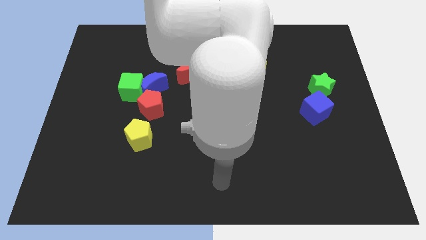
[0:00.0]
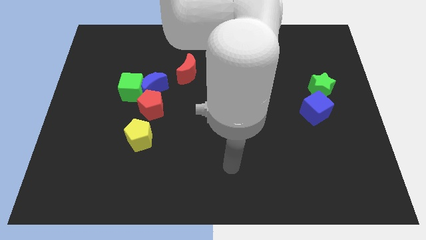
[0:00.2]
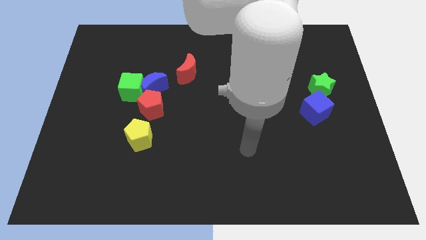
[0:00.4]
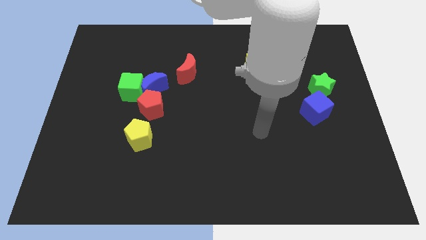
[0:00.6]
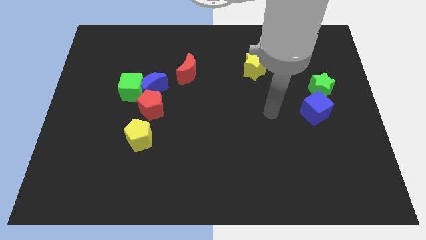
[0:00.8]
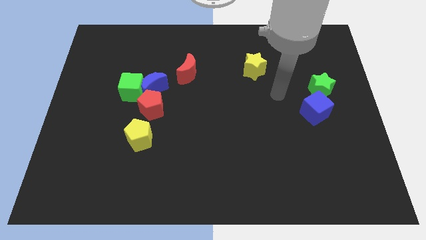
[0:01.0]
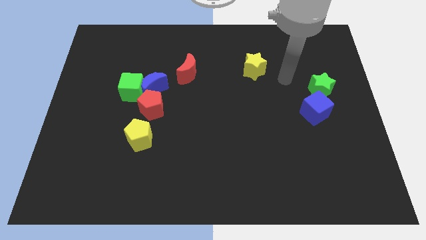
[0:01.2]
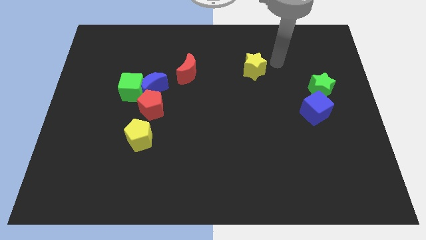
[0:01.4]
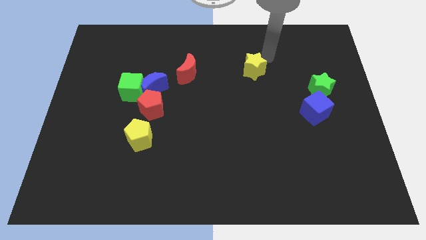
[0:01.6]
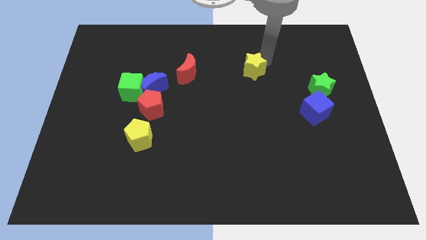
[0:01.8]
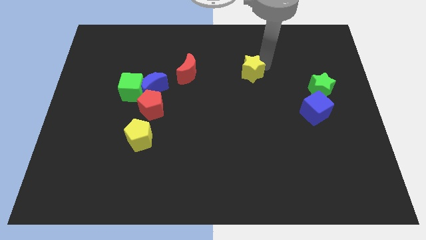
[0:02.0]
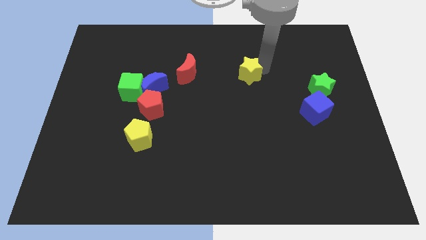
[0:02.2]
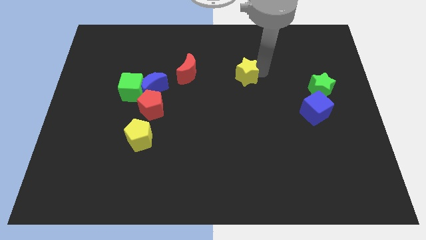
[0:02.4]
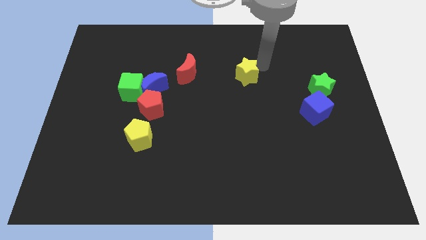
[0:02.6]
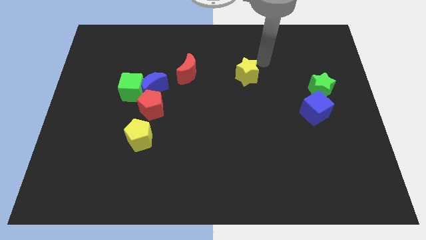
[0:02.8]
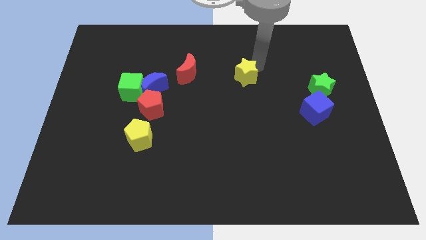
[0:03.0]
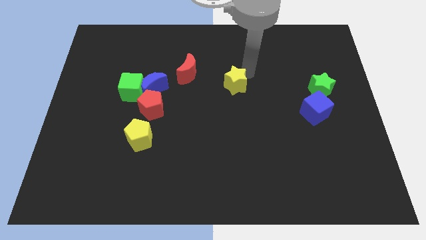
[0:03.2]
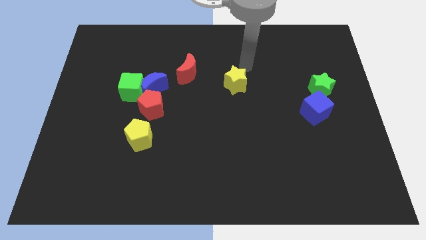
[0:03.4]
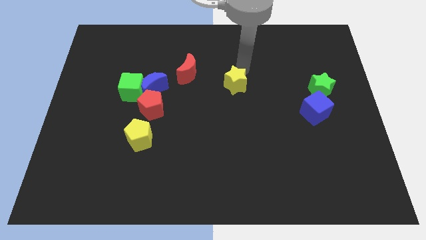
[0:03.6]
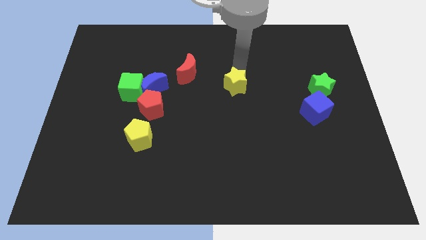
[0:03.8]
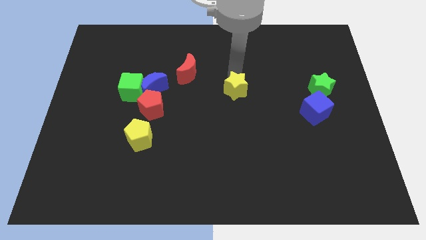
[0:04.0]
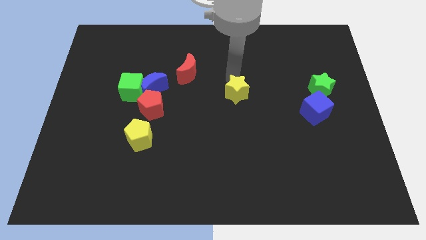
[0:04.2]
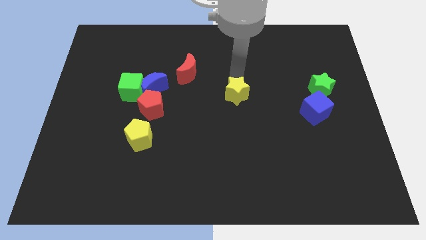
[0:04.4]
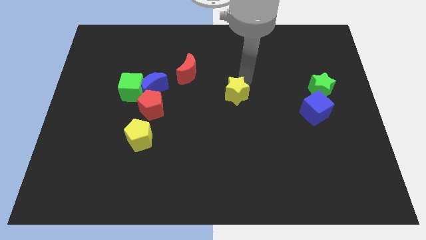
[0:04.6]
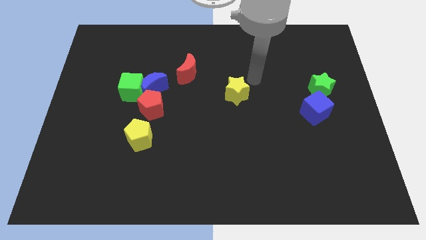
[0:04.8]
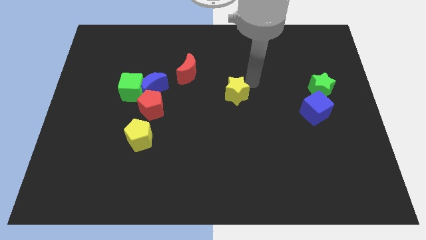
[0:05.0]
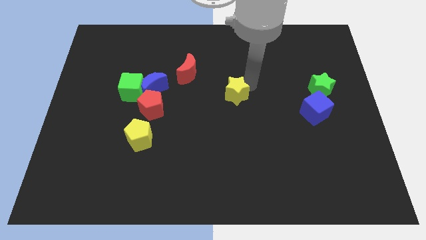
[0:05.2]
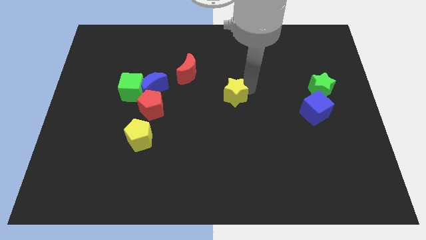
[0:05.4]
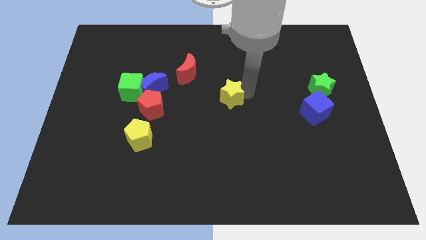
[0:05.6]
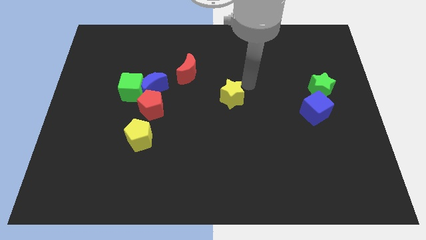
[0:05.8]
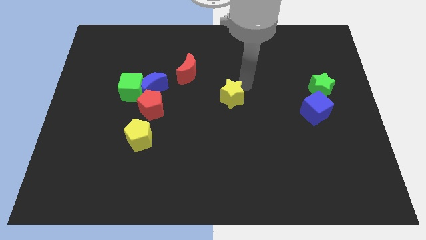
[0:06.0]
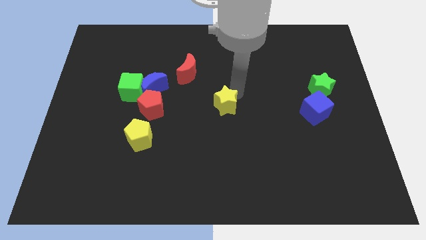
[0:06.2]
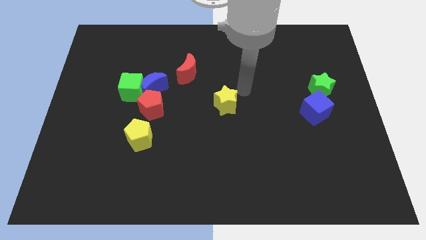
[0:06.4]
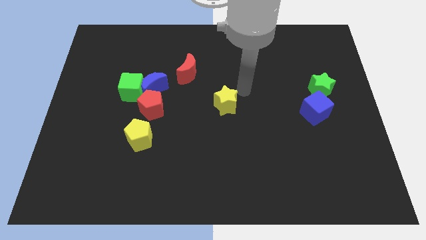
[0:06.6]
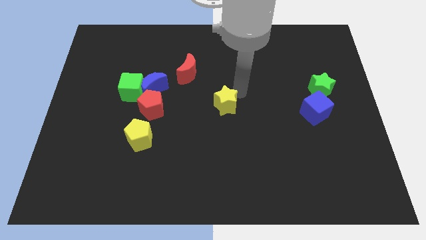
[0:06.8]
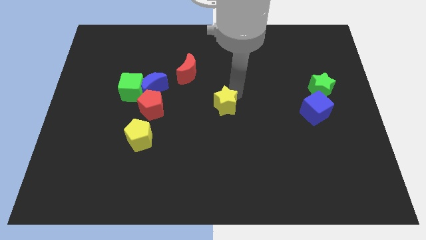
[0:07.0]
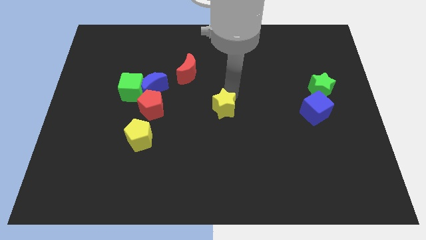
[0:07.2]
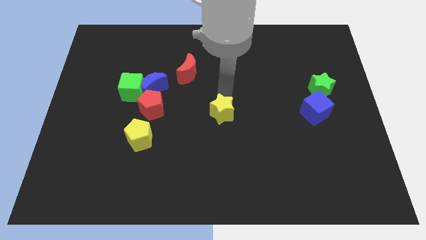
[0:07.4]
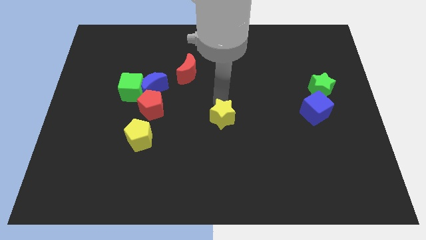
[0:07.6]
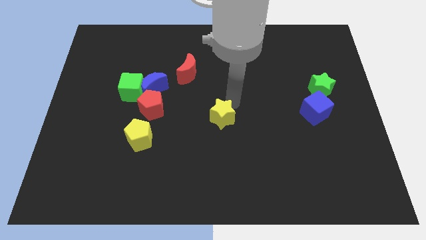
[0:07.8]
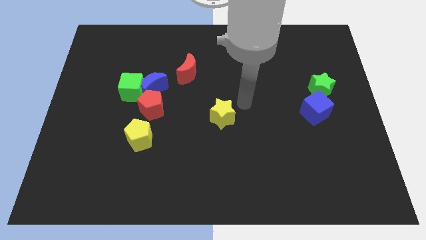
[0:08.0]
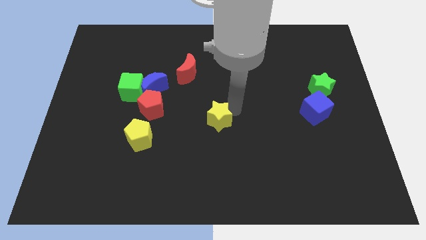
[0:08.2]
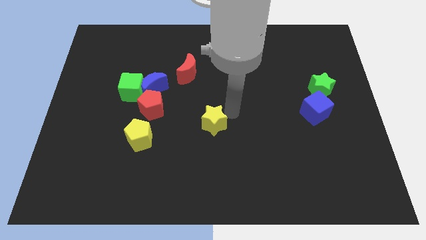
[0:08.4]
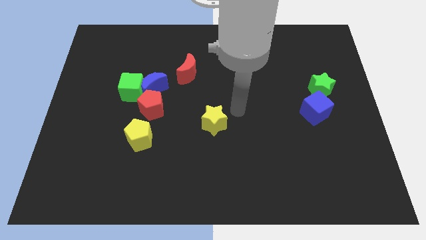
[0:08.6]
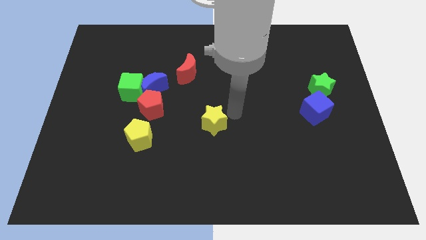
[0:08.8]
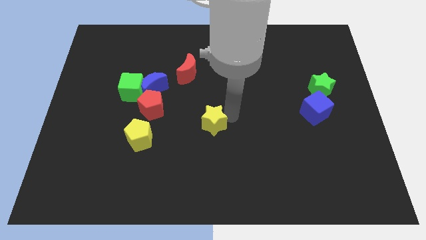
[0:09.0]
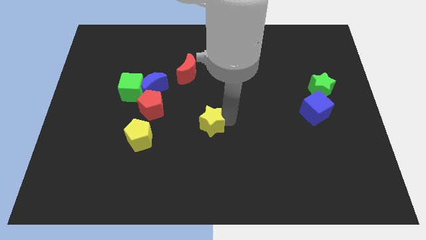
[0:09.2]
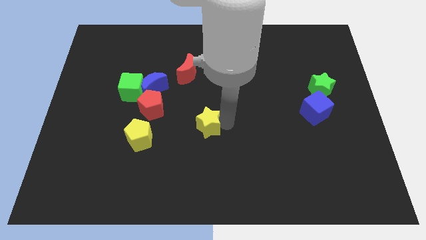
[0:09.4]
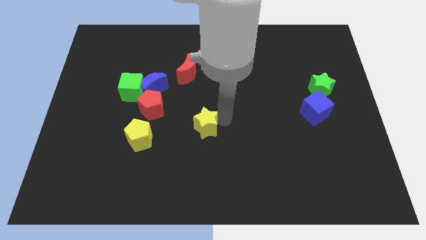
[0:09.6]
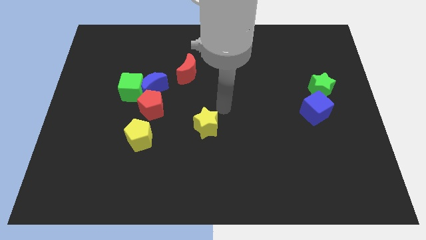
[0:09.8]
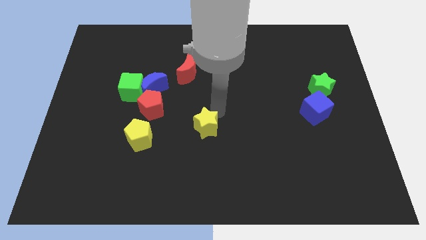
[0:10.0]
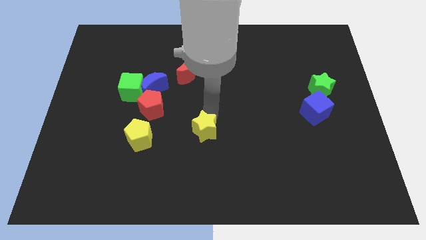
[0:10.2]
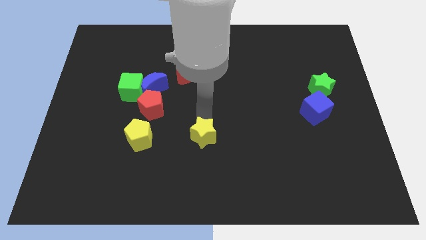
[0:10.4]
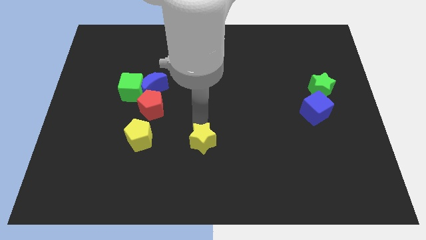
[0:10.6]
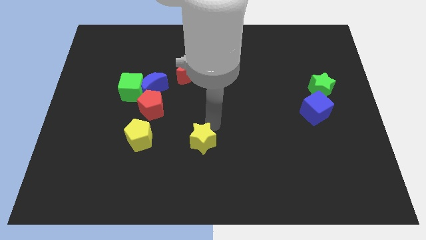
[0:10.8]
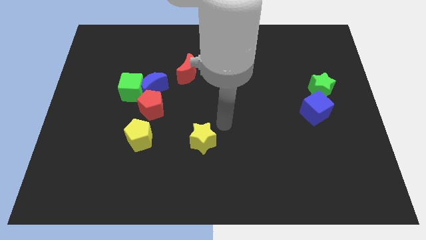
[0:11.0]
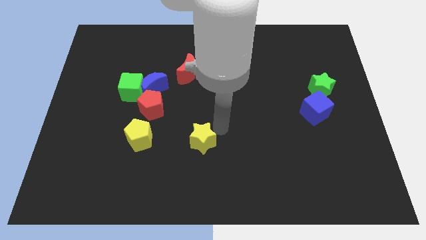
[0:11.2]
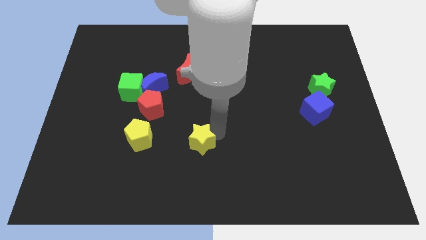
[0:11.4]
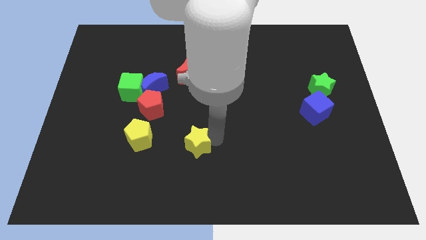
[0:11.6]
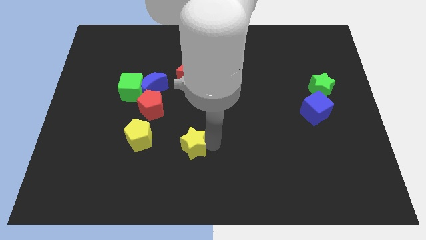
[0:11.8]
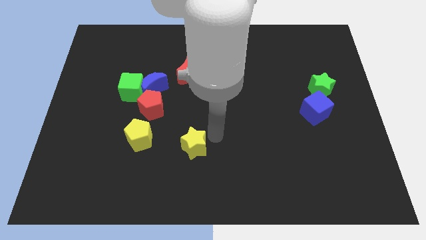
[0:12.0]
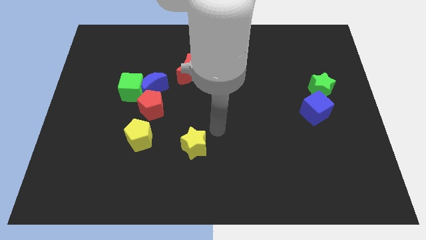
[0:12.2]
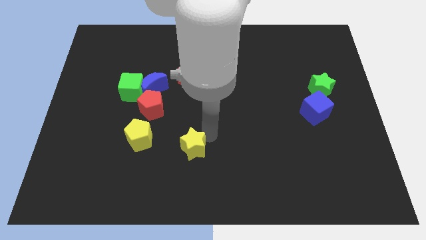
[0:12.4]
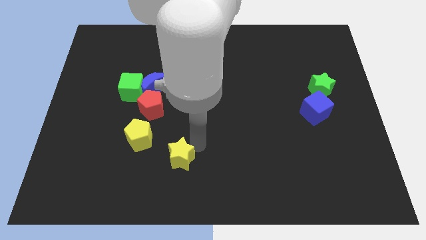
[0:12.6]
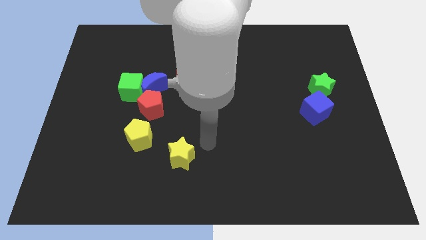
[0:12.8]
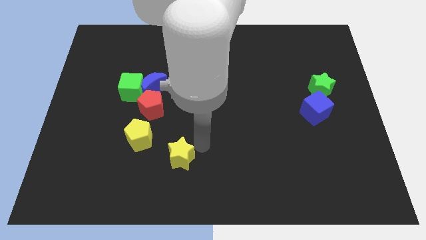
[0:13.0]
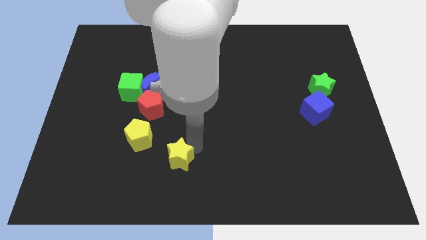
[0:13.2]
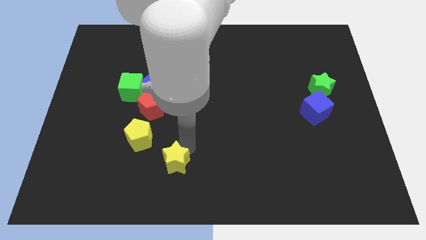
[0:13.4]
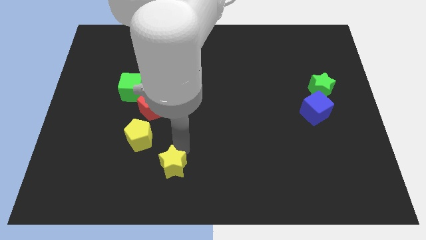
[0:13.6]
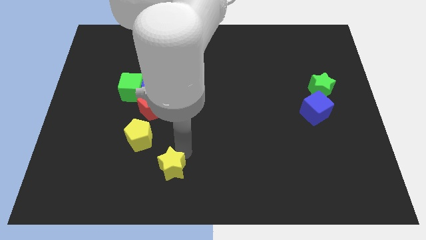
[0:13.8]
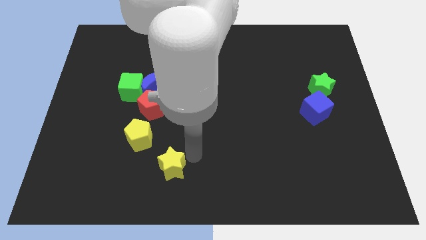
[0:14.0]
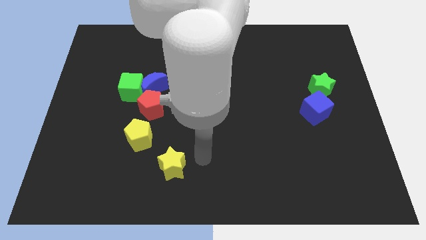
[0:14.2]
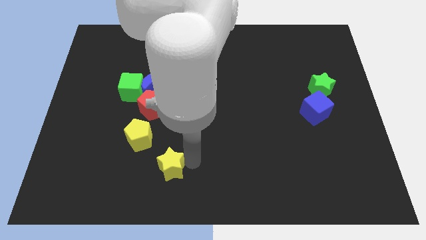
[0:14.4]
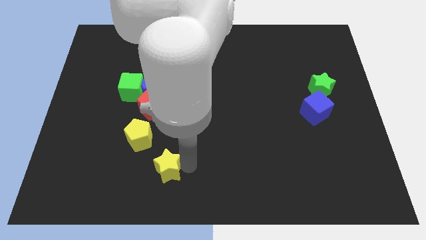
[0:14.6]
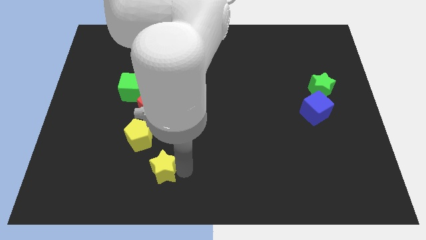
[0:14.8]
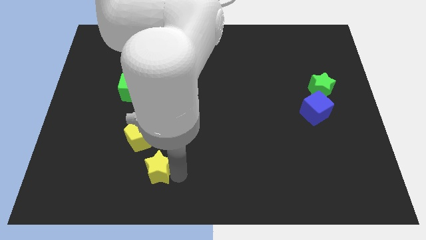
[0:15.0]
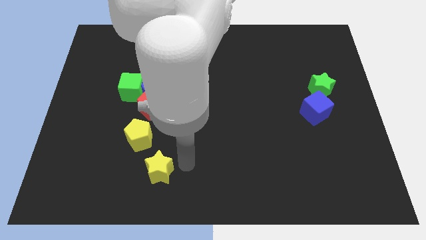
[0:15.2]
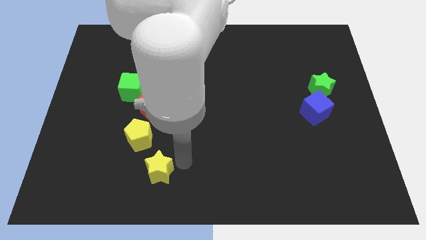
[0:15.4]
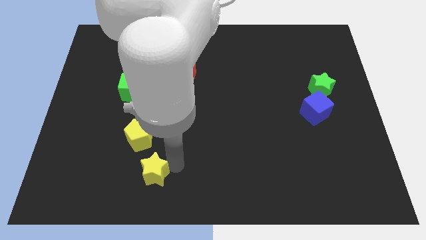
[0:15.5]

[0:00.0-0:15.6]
push the yellow star to the bottom side of the yellow pentagon
